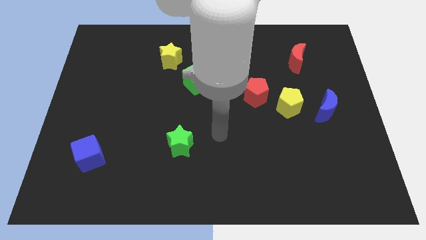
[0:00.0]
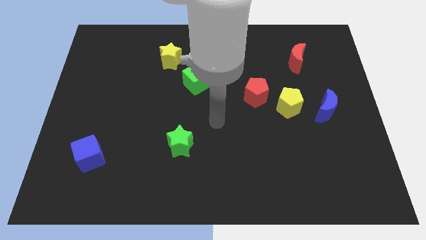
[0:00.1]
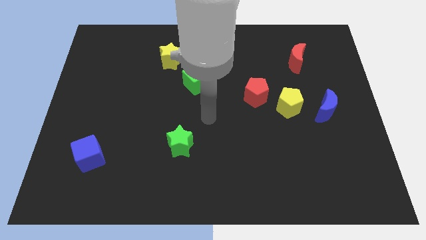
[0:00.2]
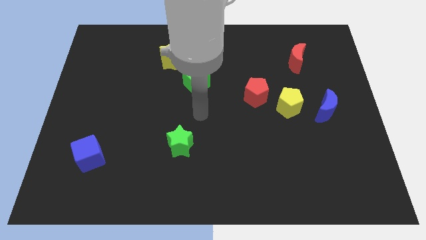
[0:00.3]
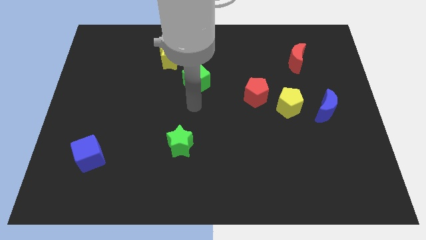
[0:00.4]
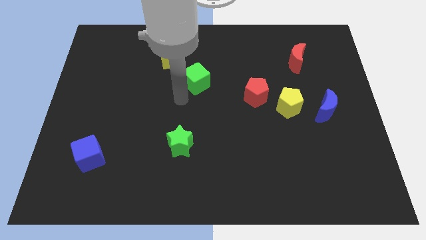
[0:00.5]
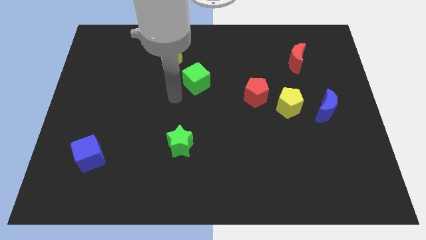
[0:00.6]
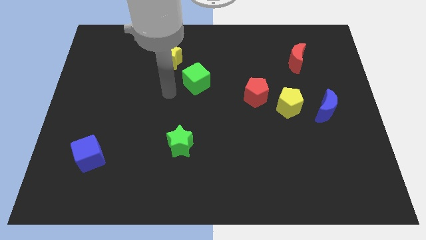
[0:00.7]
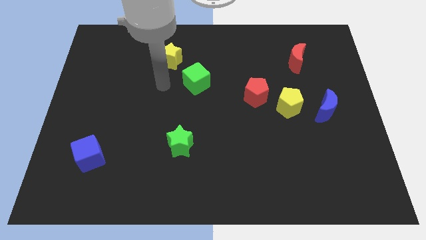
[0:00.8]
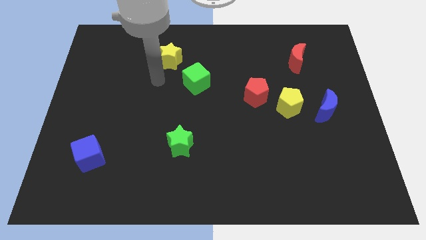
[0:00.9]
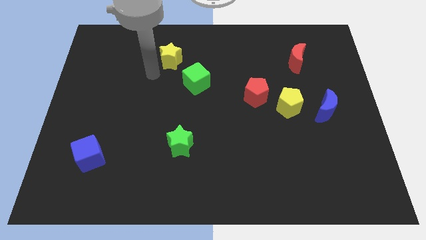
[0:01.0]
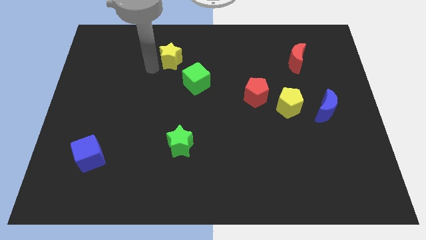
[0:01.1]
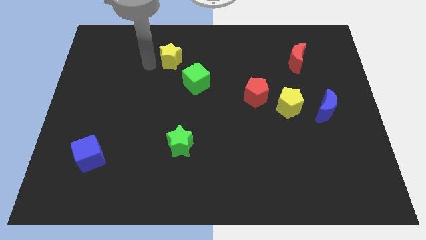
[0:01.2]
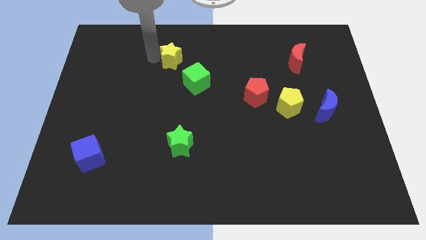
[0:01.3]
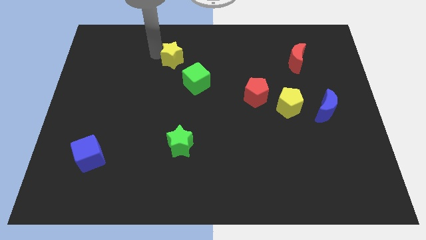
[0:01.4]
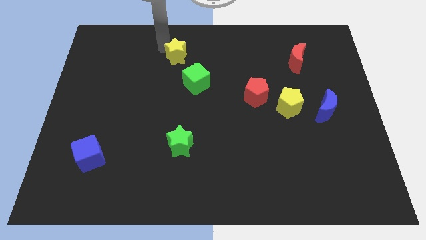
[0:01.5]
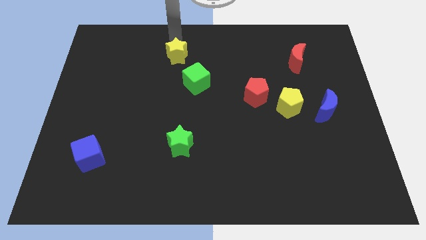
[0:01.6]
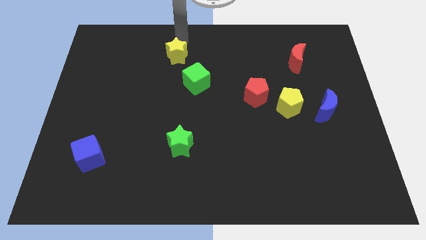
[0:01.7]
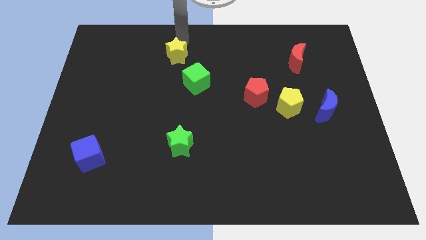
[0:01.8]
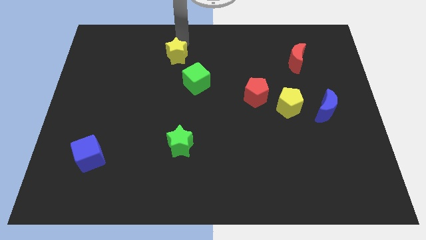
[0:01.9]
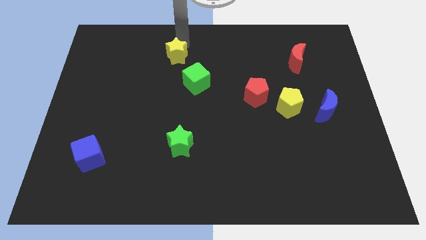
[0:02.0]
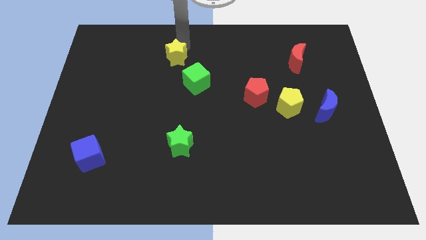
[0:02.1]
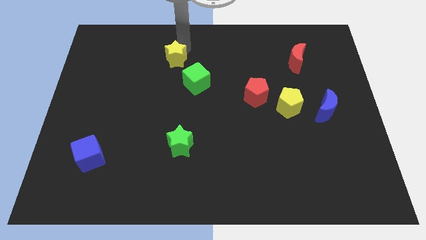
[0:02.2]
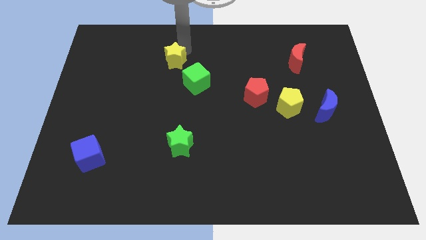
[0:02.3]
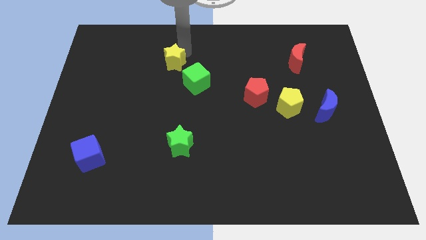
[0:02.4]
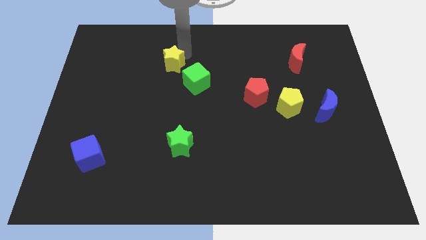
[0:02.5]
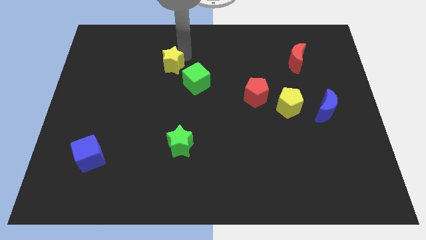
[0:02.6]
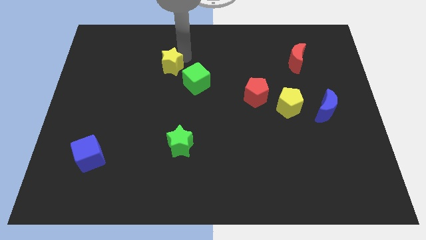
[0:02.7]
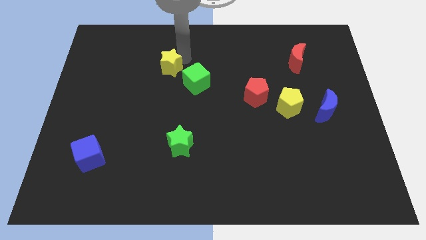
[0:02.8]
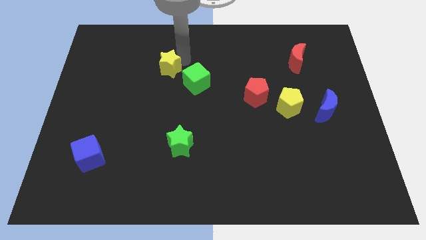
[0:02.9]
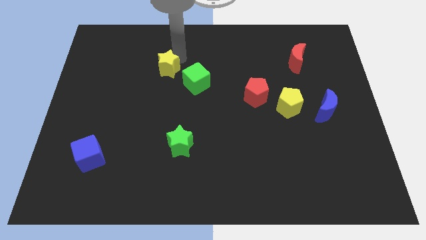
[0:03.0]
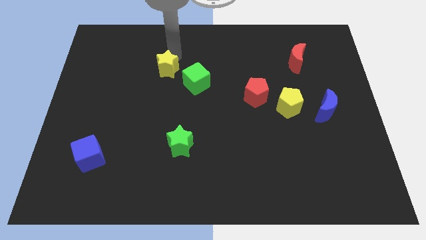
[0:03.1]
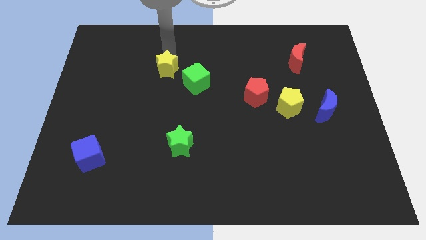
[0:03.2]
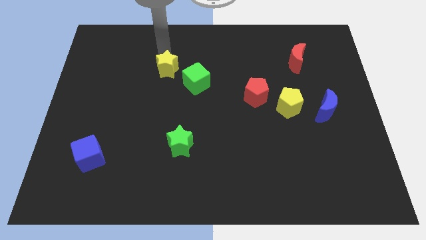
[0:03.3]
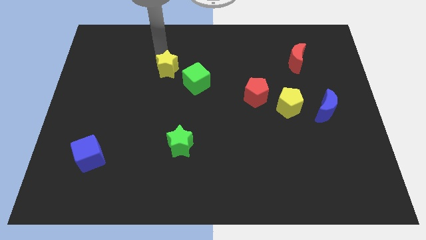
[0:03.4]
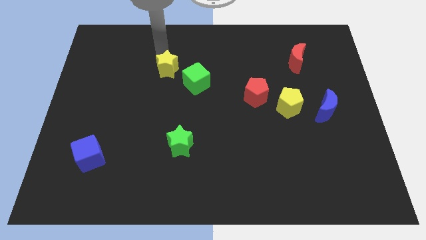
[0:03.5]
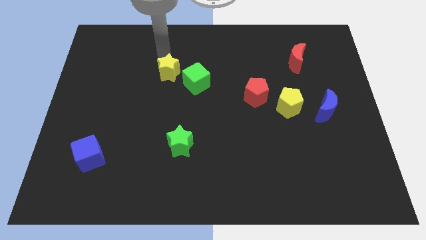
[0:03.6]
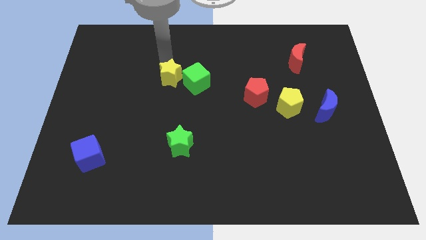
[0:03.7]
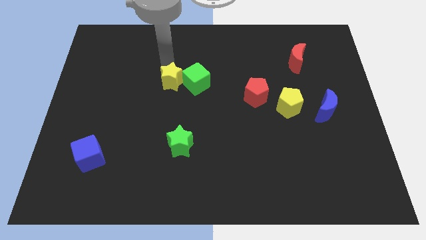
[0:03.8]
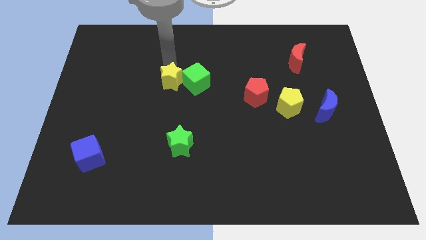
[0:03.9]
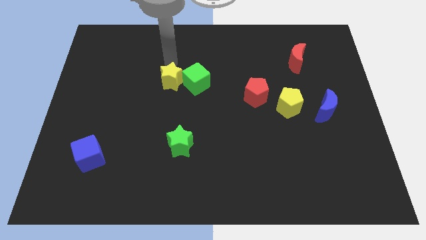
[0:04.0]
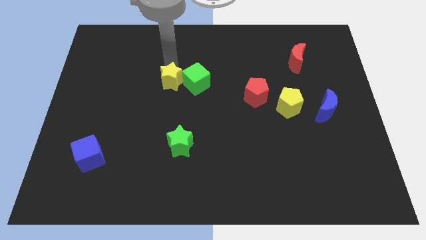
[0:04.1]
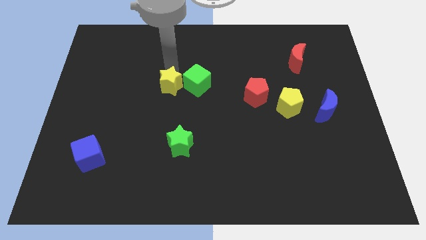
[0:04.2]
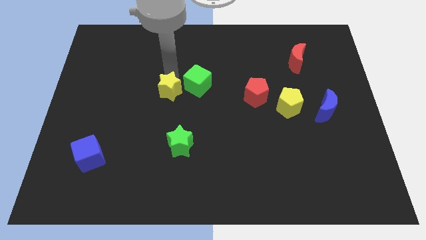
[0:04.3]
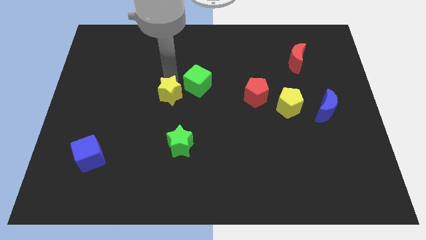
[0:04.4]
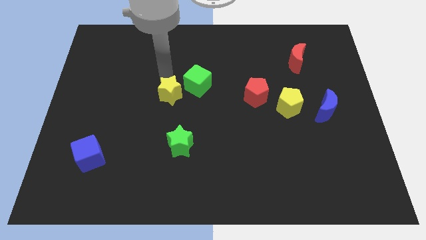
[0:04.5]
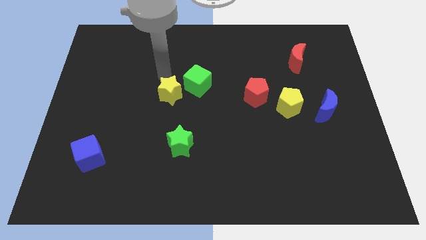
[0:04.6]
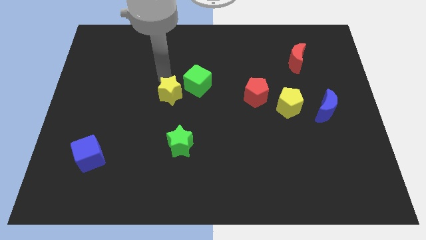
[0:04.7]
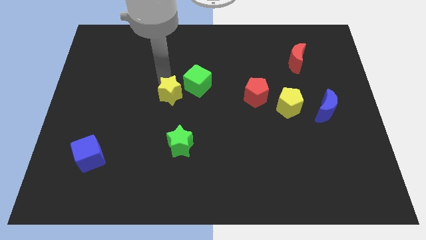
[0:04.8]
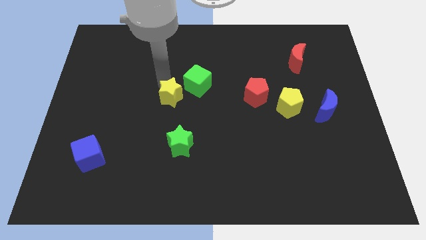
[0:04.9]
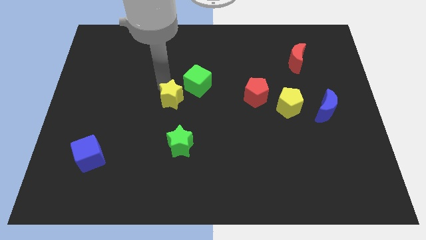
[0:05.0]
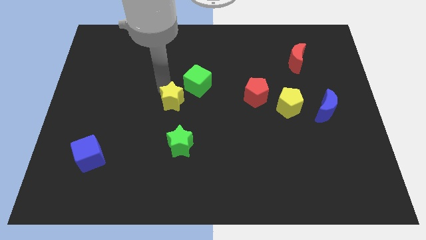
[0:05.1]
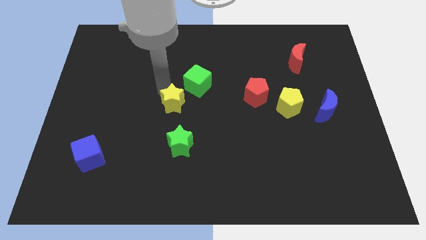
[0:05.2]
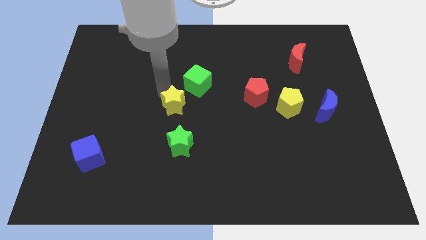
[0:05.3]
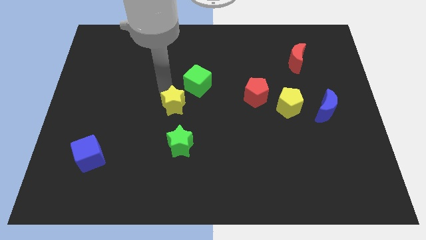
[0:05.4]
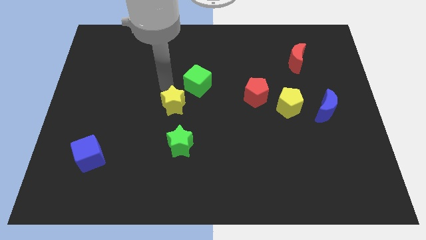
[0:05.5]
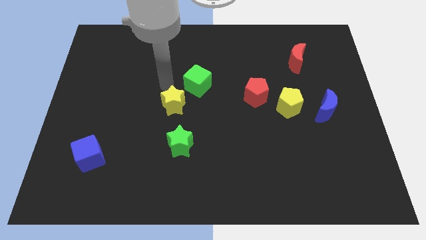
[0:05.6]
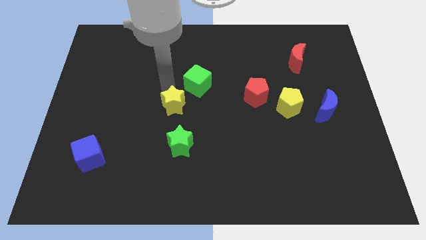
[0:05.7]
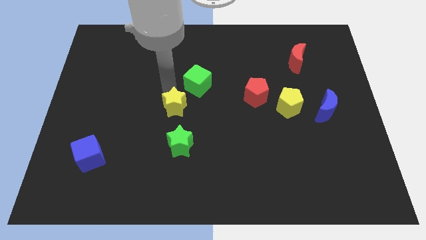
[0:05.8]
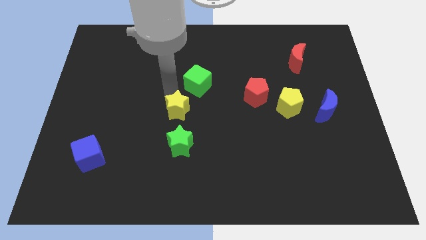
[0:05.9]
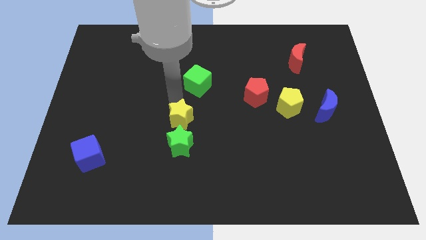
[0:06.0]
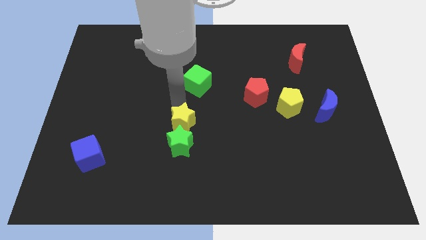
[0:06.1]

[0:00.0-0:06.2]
slide the yellow star close to the green star
